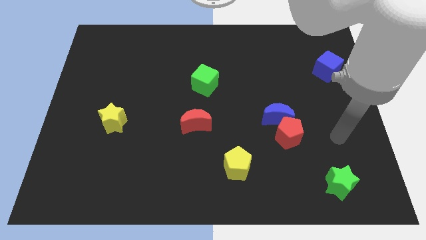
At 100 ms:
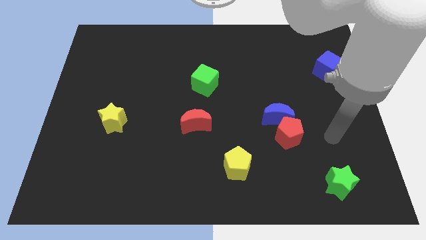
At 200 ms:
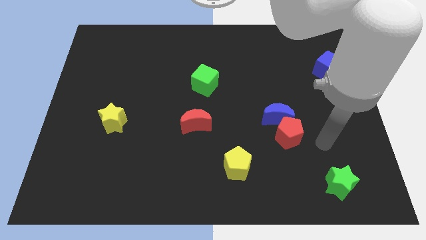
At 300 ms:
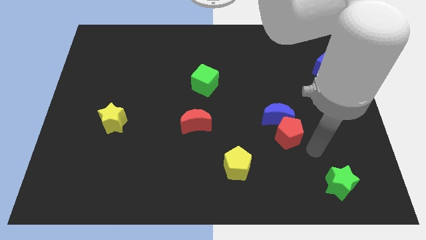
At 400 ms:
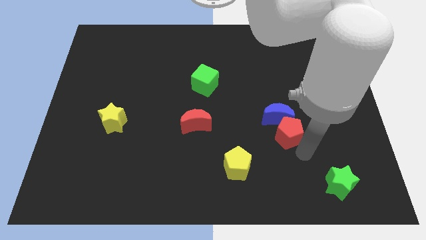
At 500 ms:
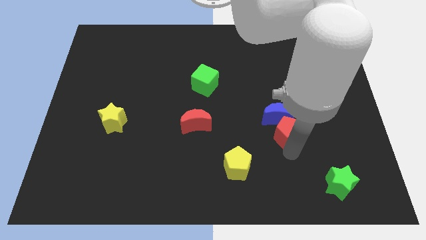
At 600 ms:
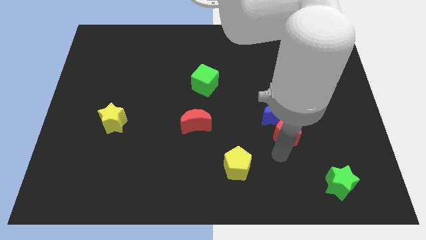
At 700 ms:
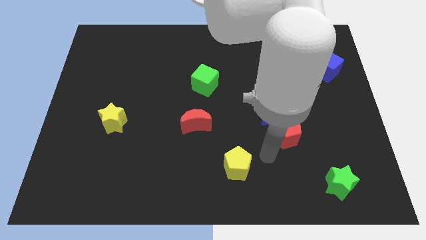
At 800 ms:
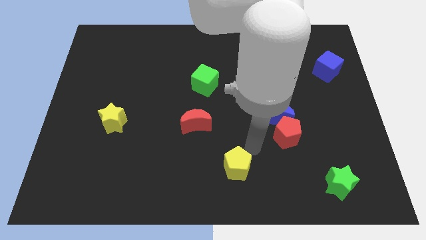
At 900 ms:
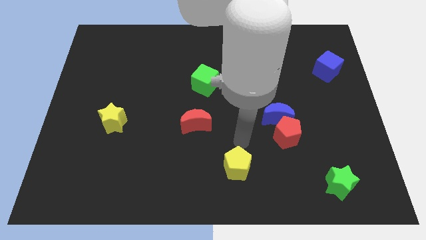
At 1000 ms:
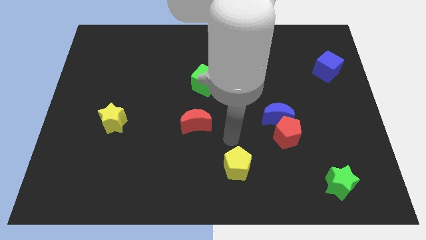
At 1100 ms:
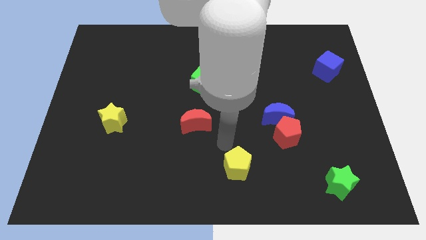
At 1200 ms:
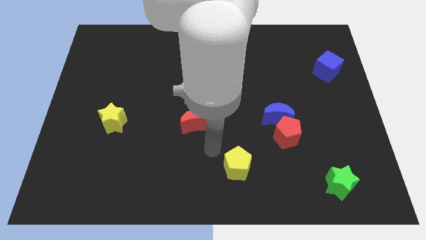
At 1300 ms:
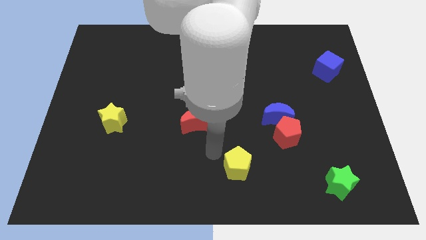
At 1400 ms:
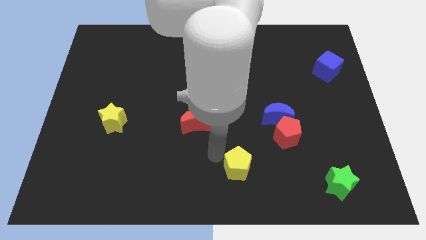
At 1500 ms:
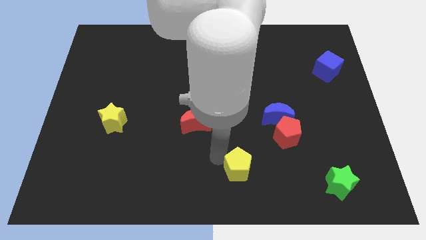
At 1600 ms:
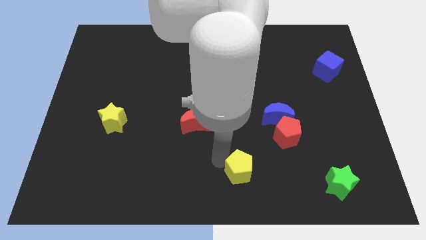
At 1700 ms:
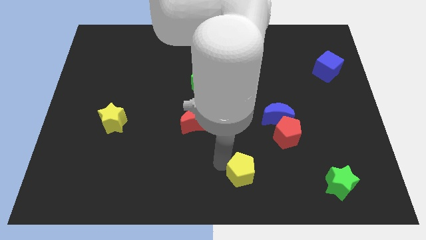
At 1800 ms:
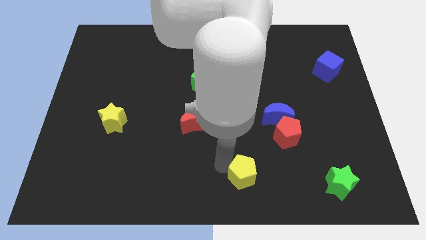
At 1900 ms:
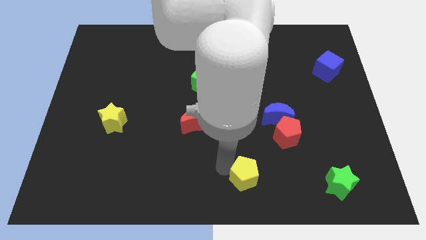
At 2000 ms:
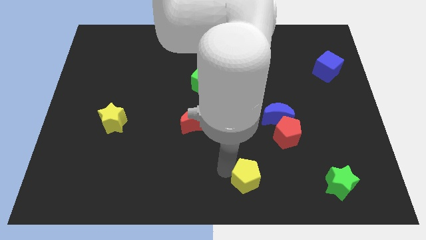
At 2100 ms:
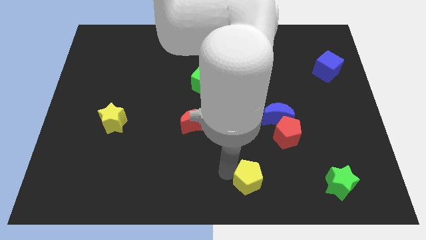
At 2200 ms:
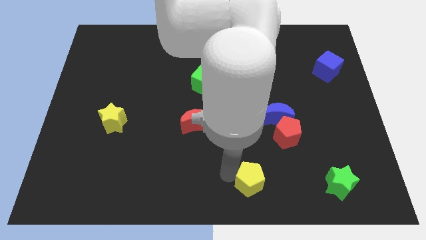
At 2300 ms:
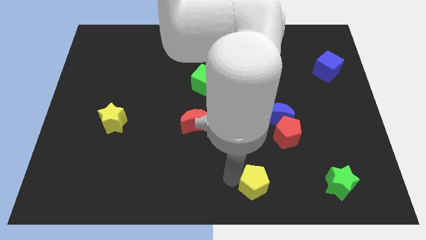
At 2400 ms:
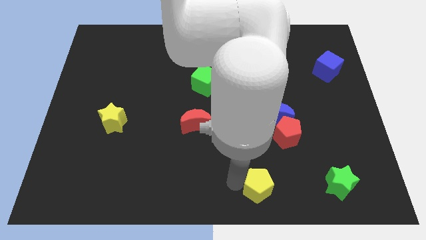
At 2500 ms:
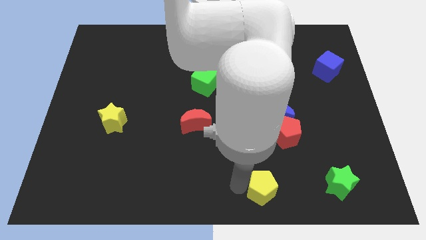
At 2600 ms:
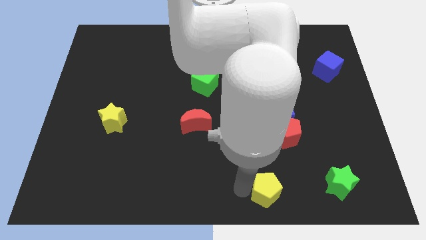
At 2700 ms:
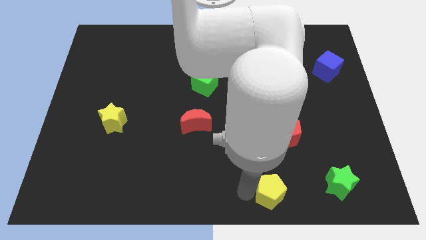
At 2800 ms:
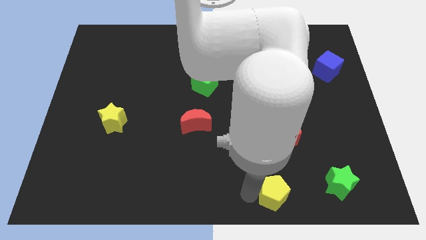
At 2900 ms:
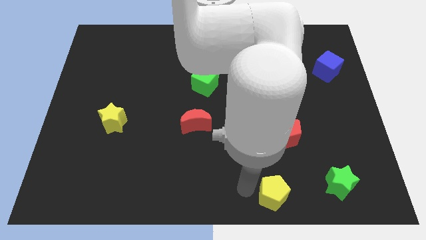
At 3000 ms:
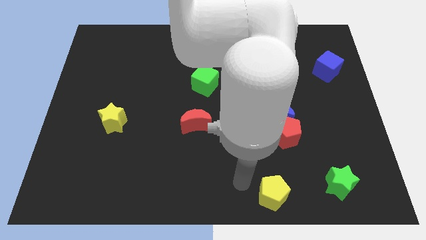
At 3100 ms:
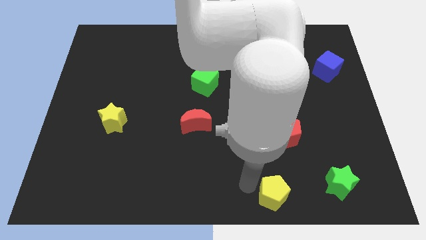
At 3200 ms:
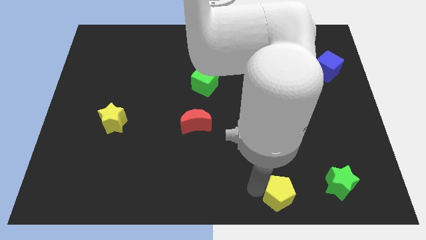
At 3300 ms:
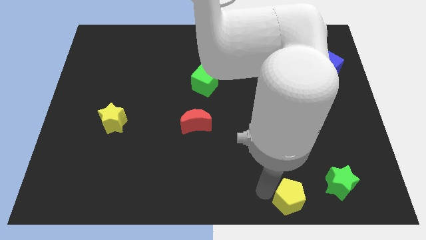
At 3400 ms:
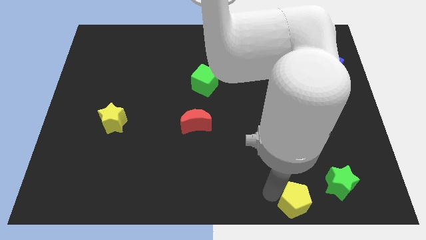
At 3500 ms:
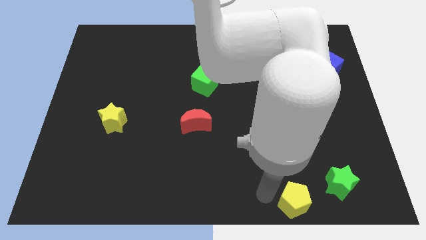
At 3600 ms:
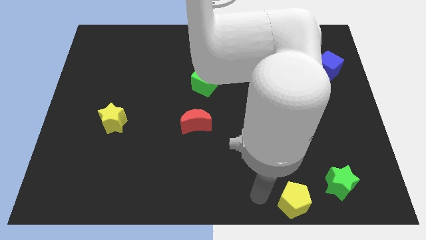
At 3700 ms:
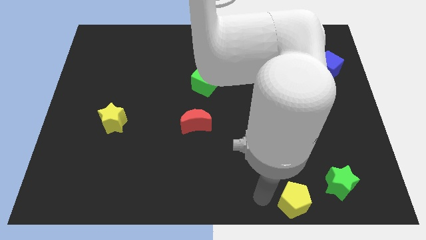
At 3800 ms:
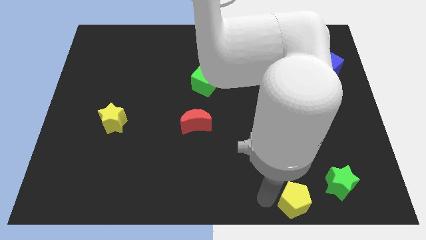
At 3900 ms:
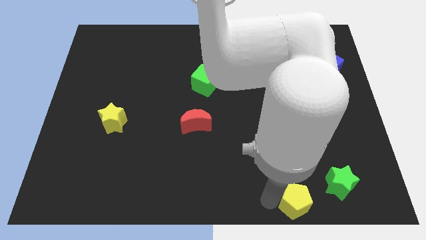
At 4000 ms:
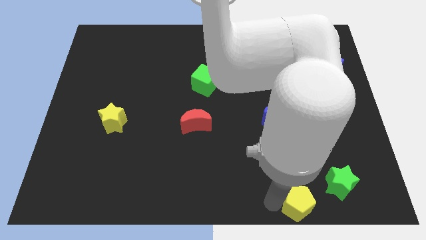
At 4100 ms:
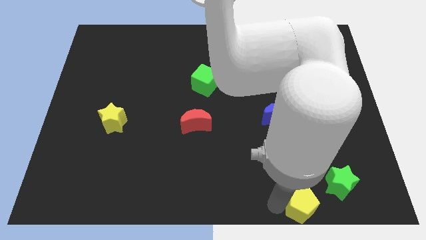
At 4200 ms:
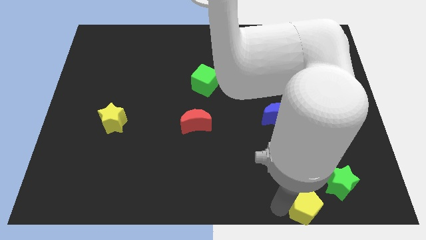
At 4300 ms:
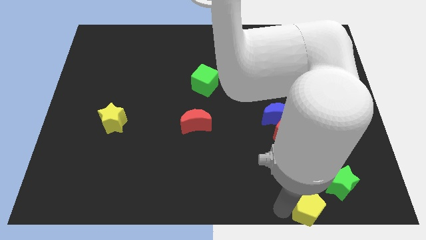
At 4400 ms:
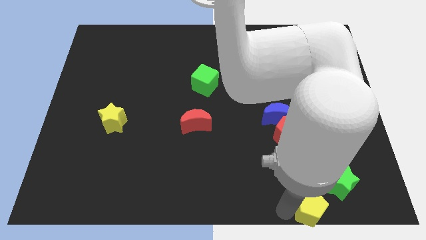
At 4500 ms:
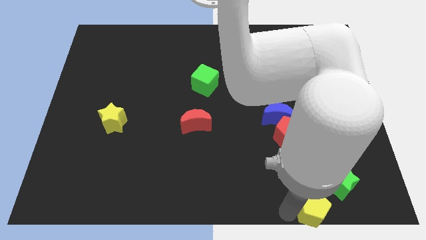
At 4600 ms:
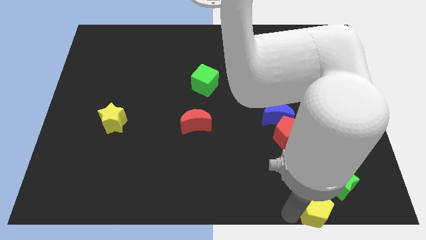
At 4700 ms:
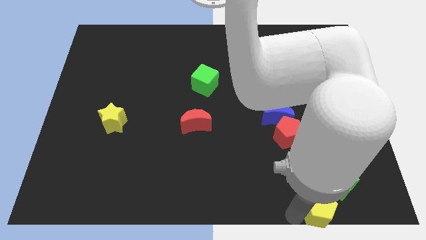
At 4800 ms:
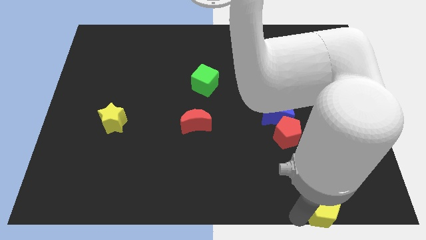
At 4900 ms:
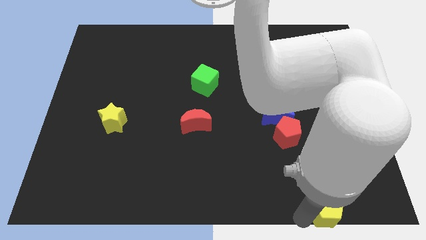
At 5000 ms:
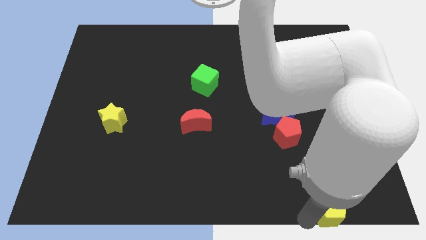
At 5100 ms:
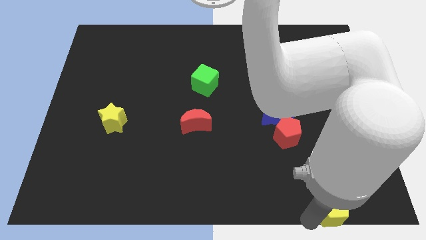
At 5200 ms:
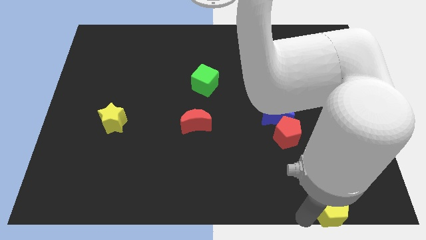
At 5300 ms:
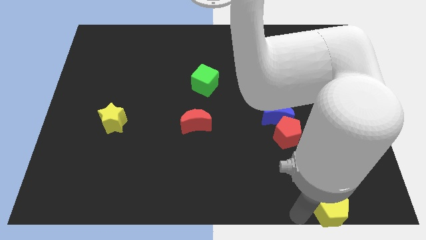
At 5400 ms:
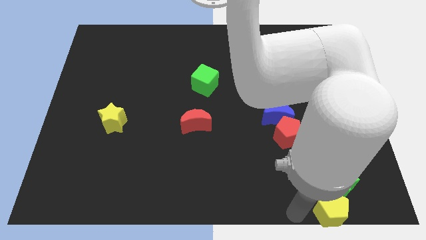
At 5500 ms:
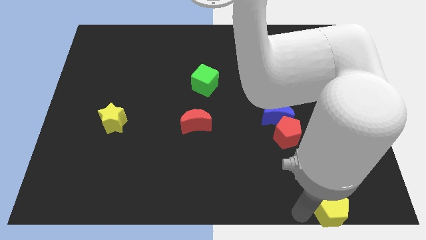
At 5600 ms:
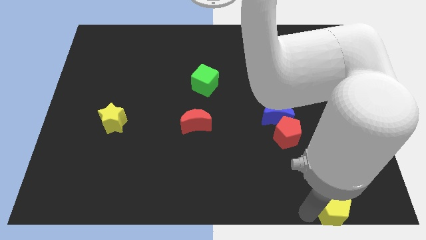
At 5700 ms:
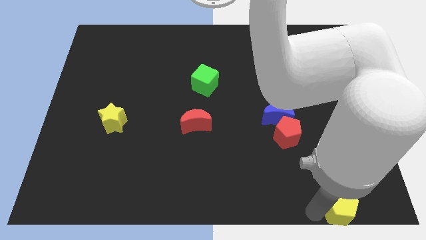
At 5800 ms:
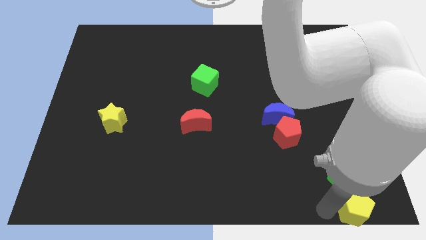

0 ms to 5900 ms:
push the yellow pentagon to the lower right corner
